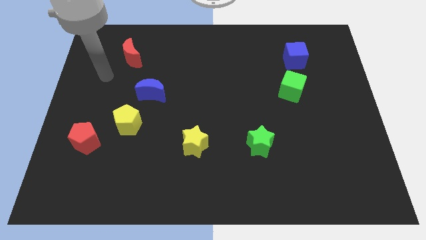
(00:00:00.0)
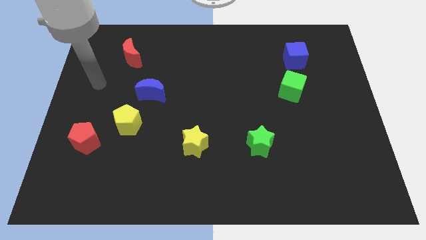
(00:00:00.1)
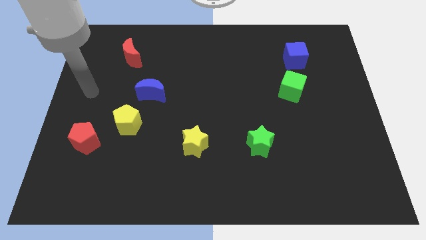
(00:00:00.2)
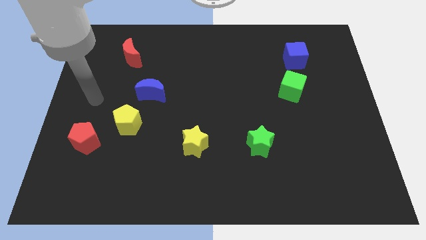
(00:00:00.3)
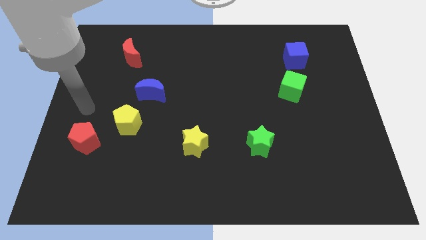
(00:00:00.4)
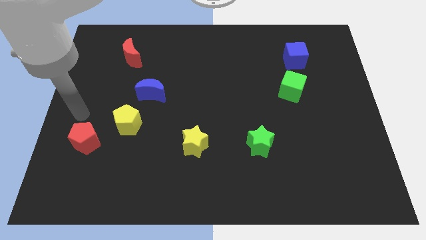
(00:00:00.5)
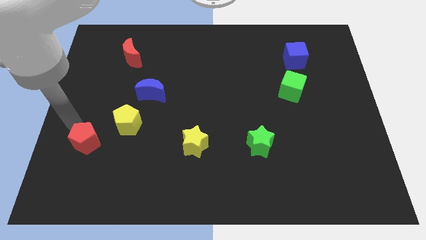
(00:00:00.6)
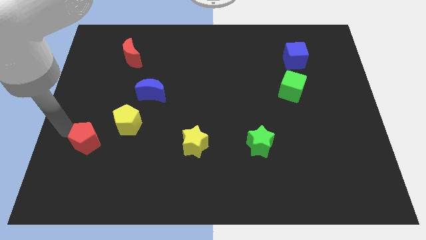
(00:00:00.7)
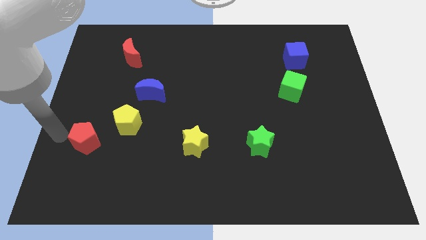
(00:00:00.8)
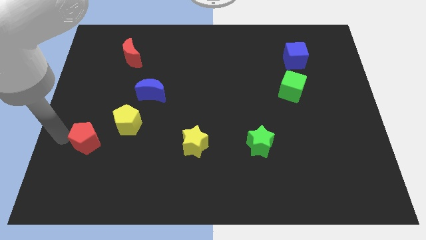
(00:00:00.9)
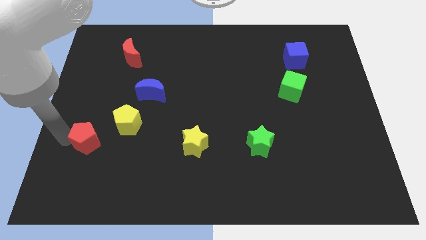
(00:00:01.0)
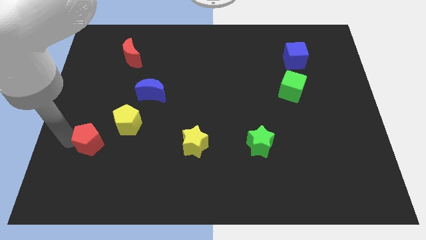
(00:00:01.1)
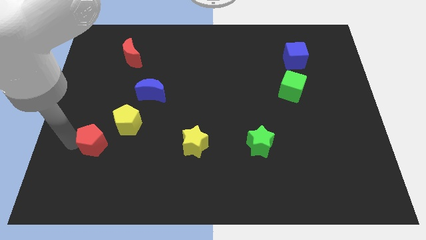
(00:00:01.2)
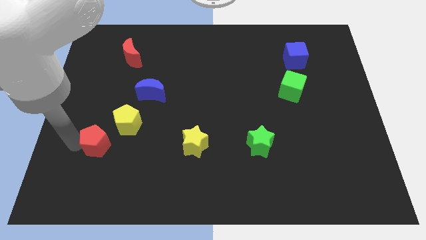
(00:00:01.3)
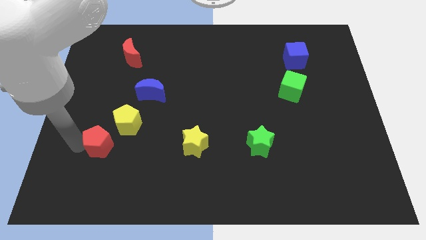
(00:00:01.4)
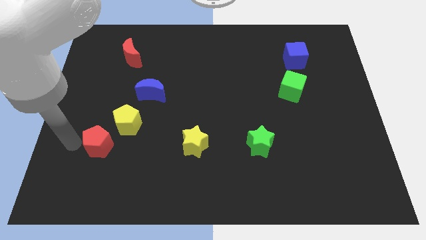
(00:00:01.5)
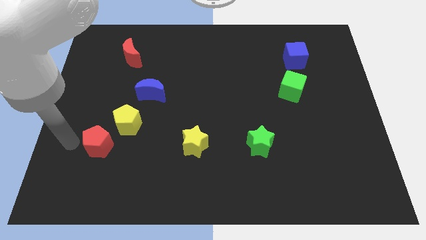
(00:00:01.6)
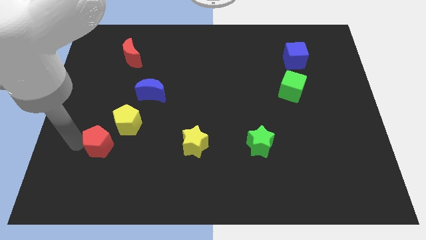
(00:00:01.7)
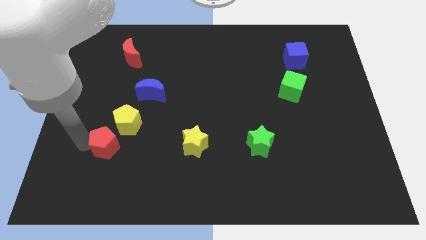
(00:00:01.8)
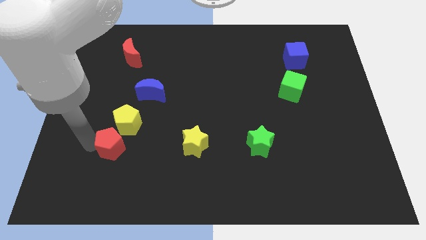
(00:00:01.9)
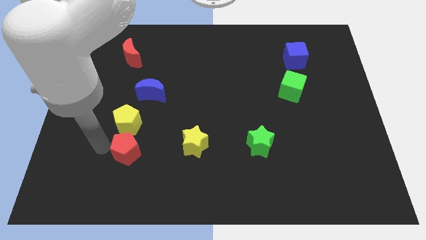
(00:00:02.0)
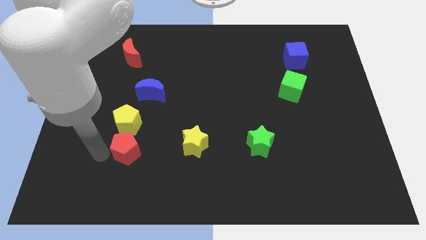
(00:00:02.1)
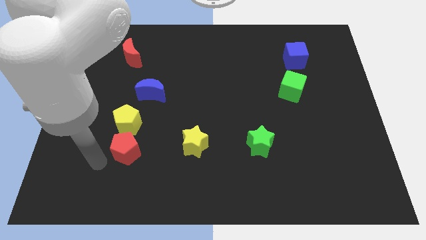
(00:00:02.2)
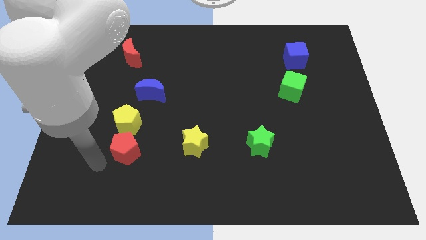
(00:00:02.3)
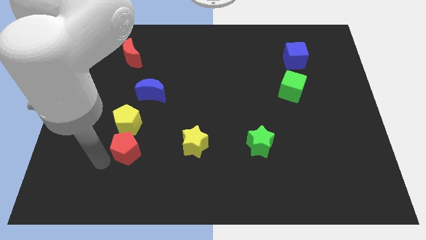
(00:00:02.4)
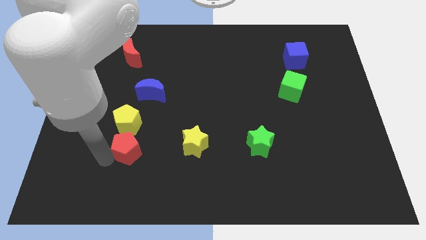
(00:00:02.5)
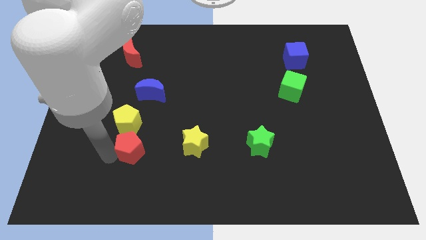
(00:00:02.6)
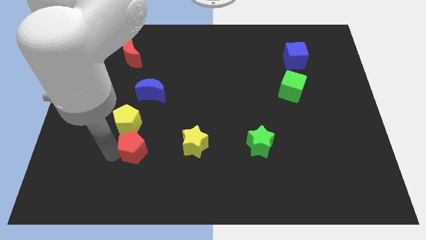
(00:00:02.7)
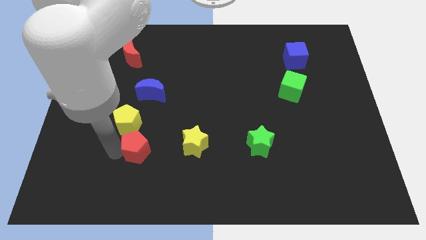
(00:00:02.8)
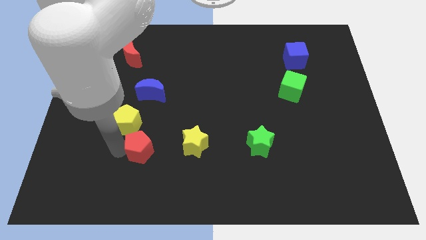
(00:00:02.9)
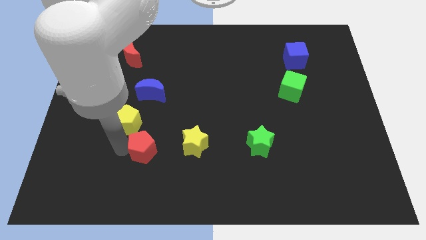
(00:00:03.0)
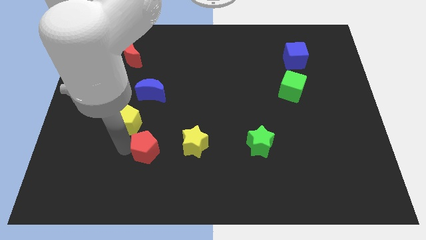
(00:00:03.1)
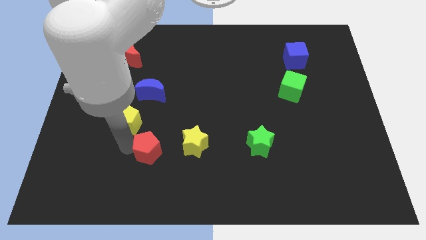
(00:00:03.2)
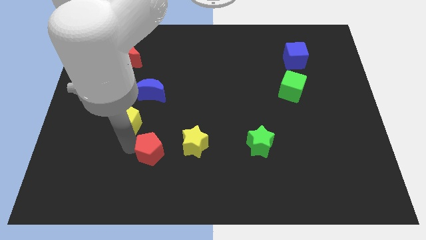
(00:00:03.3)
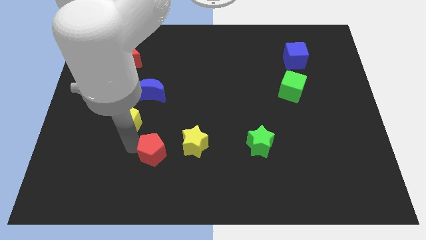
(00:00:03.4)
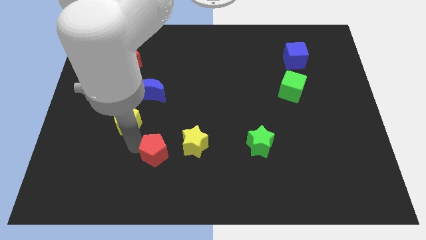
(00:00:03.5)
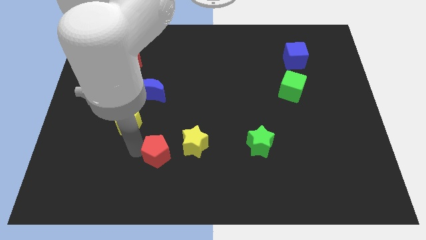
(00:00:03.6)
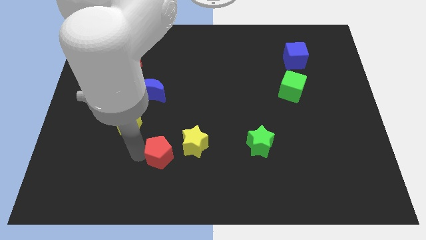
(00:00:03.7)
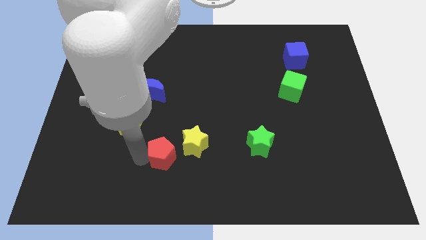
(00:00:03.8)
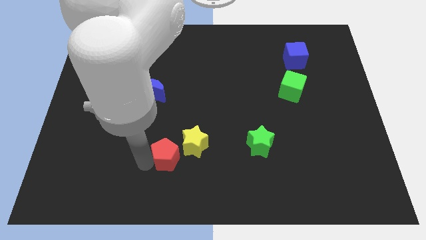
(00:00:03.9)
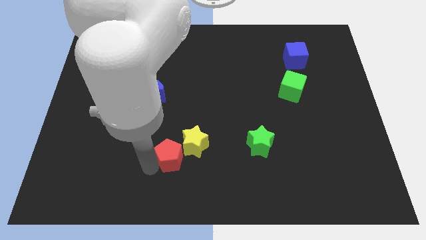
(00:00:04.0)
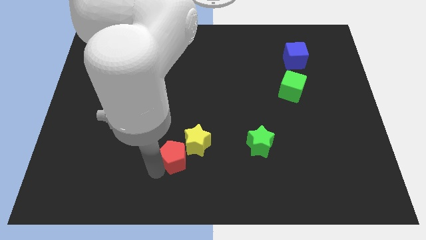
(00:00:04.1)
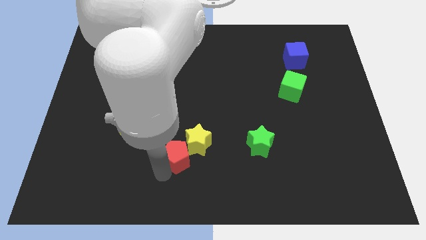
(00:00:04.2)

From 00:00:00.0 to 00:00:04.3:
push the red pentagon right

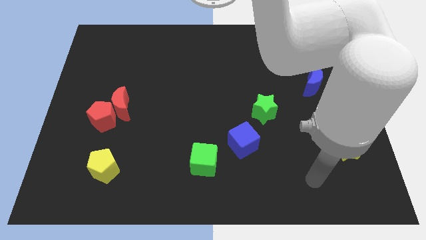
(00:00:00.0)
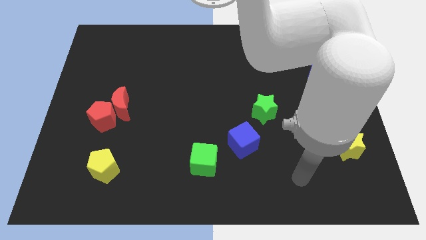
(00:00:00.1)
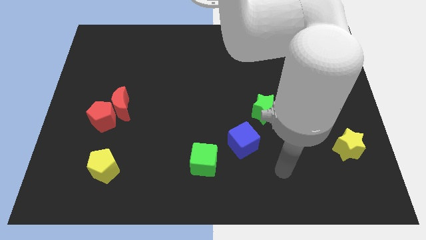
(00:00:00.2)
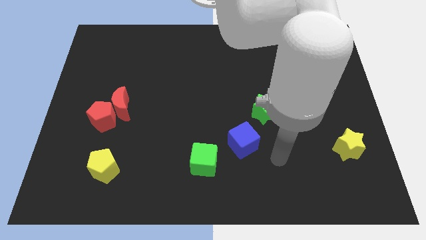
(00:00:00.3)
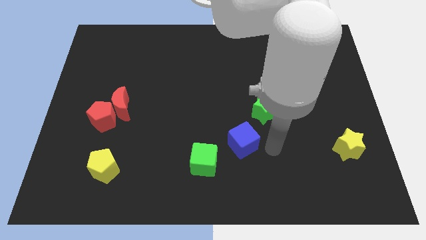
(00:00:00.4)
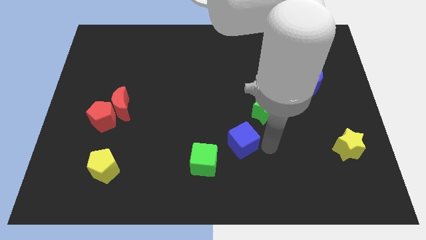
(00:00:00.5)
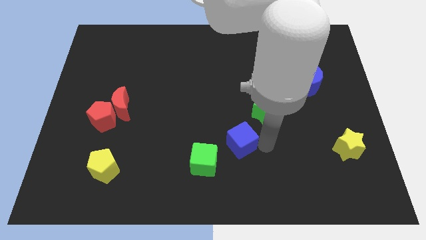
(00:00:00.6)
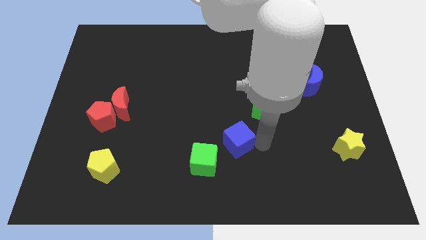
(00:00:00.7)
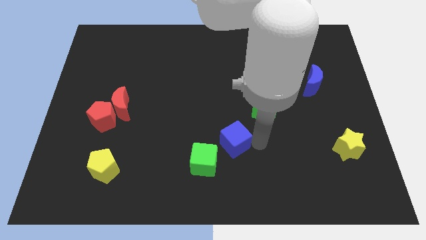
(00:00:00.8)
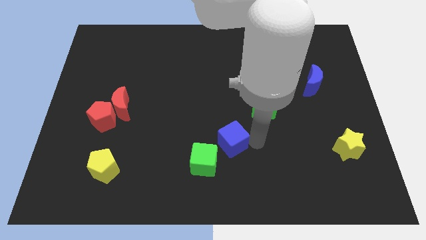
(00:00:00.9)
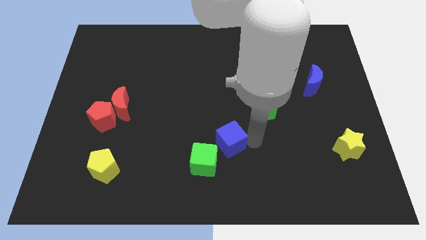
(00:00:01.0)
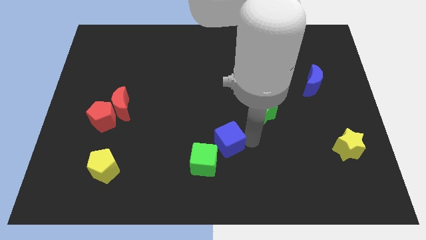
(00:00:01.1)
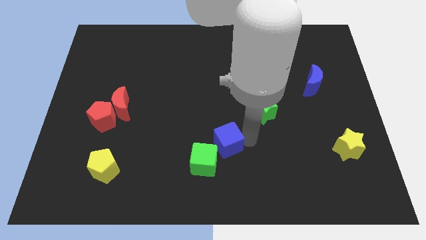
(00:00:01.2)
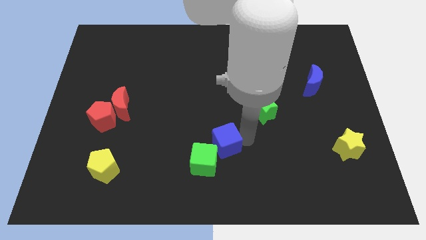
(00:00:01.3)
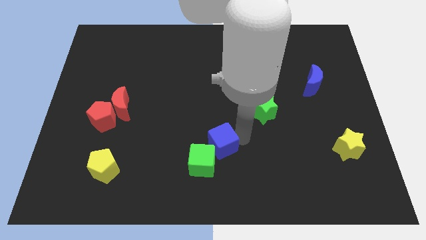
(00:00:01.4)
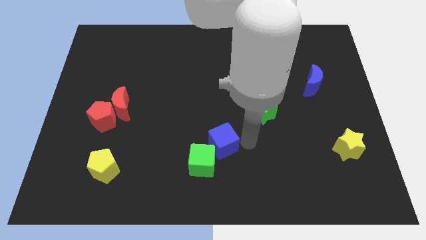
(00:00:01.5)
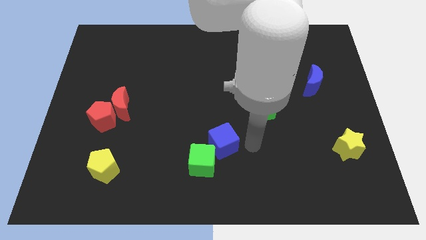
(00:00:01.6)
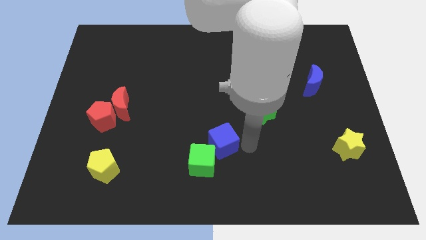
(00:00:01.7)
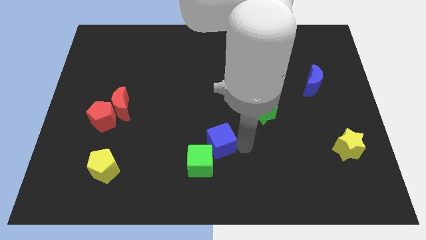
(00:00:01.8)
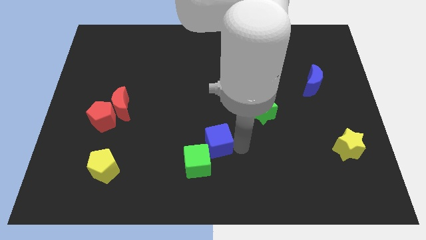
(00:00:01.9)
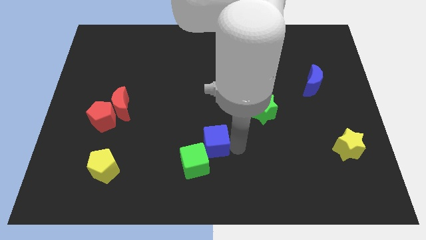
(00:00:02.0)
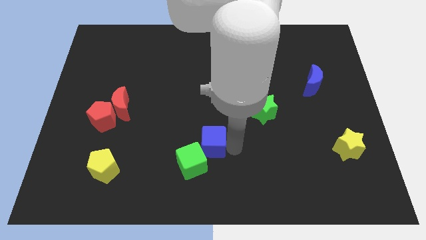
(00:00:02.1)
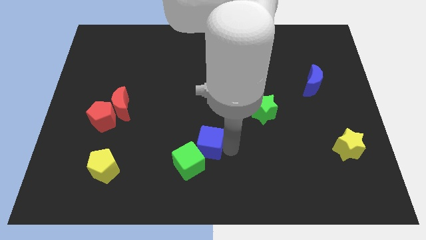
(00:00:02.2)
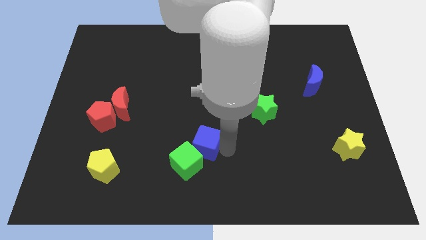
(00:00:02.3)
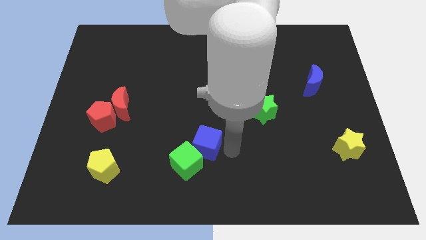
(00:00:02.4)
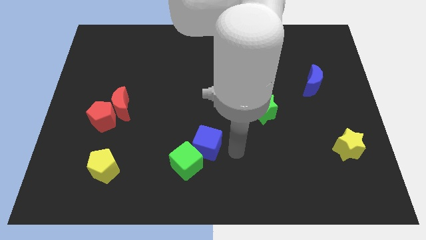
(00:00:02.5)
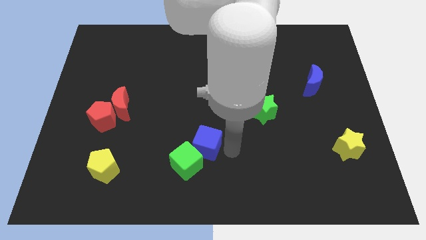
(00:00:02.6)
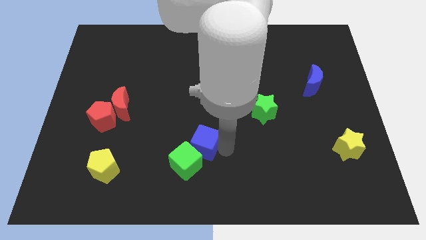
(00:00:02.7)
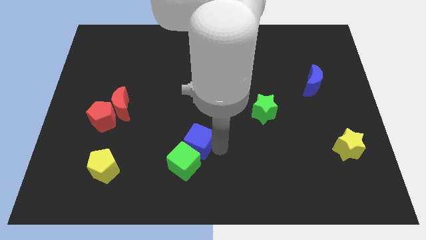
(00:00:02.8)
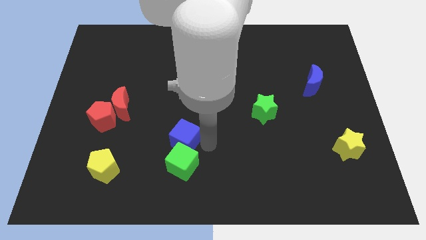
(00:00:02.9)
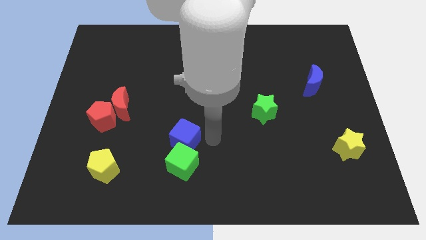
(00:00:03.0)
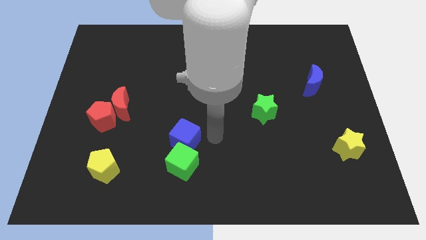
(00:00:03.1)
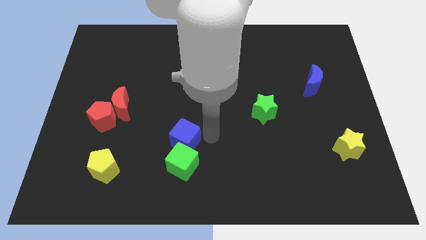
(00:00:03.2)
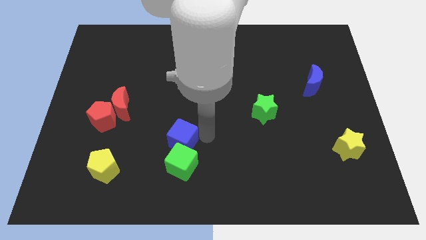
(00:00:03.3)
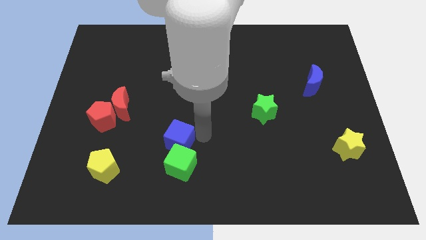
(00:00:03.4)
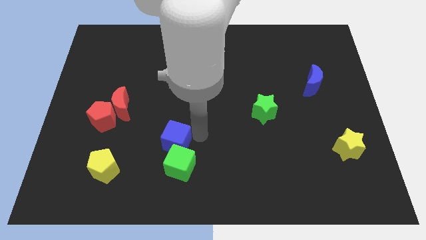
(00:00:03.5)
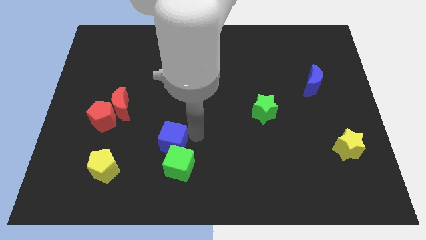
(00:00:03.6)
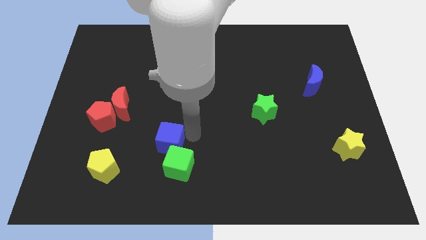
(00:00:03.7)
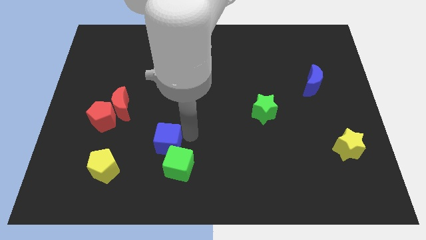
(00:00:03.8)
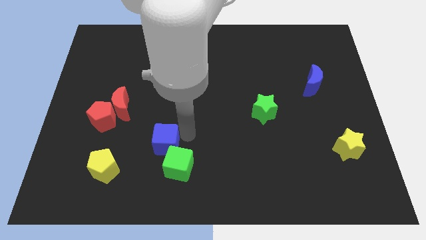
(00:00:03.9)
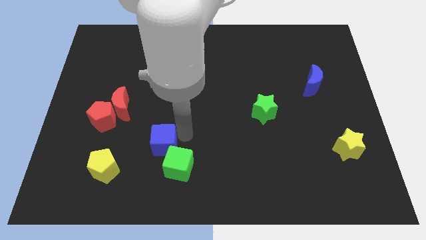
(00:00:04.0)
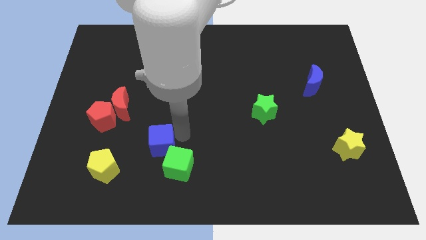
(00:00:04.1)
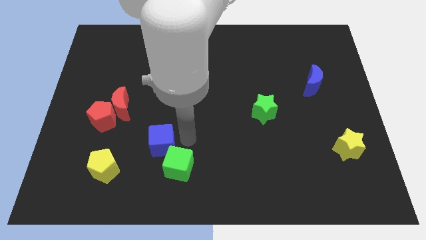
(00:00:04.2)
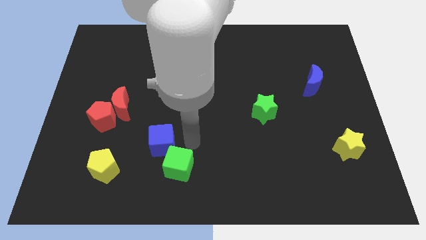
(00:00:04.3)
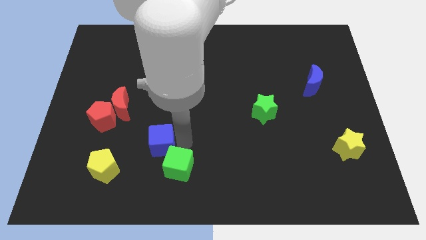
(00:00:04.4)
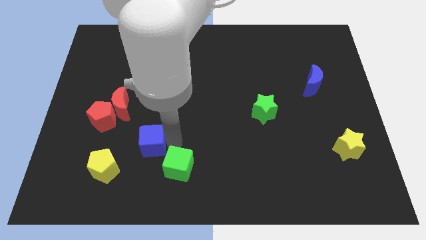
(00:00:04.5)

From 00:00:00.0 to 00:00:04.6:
push the blue cube to the left
